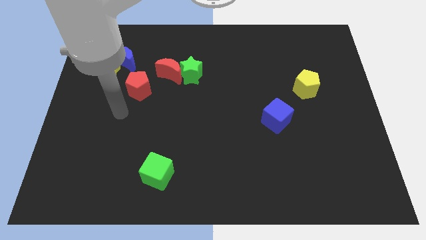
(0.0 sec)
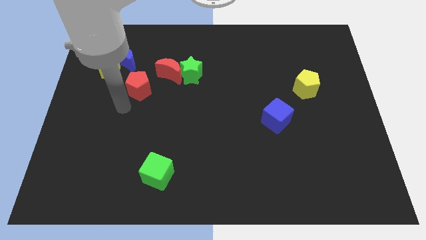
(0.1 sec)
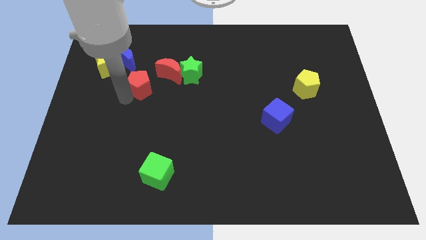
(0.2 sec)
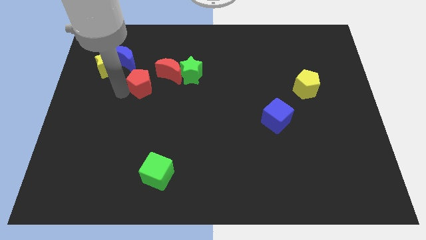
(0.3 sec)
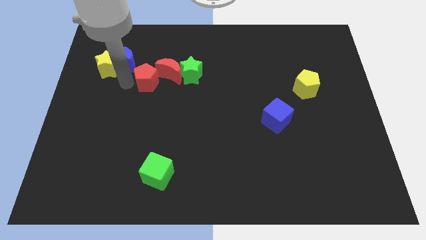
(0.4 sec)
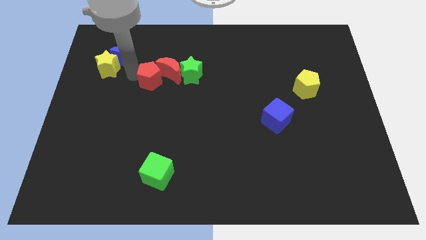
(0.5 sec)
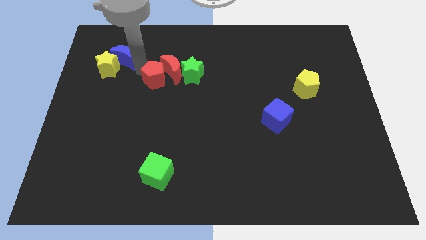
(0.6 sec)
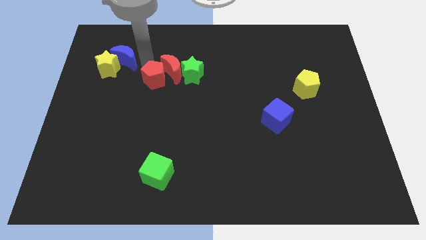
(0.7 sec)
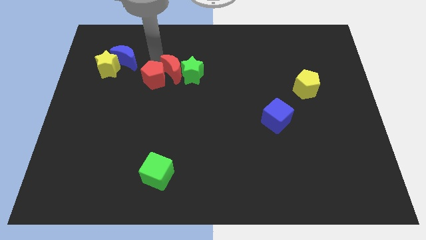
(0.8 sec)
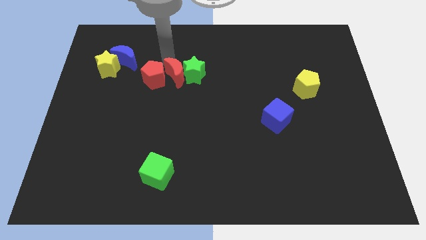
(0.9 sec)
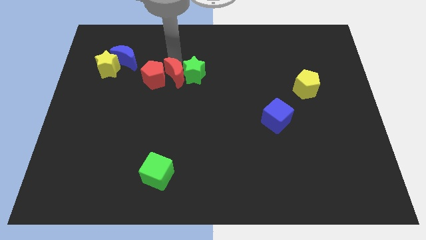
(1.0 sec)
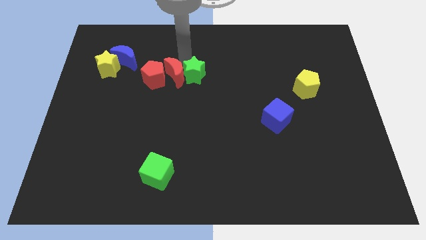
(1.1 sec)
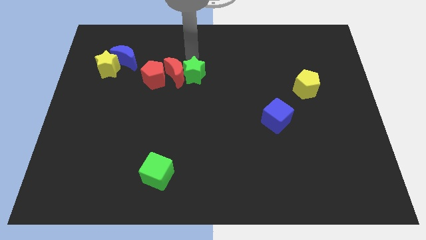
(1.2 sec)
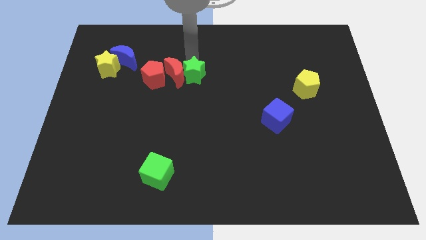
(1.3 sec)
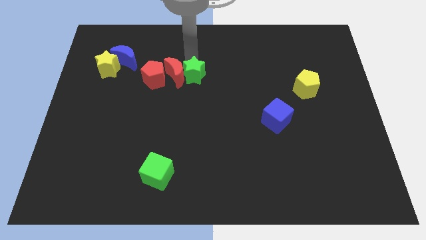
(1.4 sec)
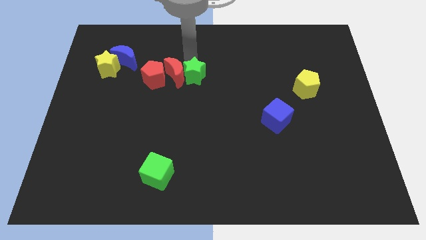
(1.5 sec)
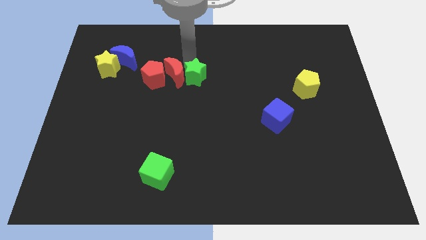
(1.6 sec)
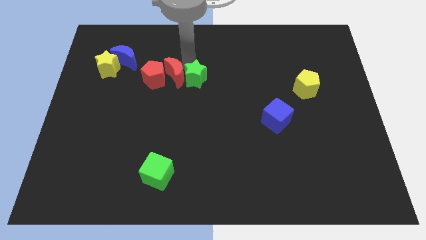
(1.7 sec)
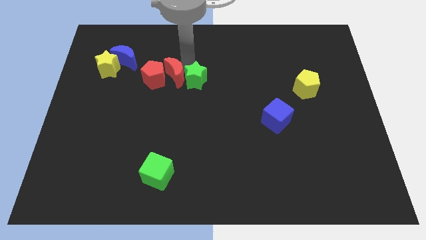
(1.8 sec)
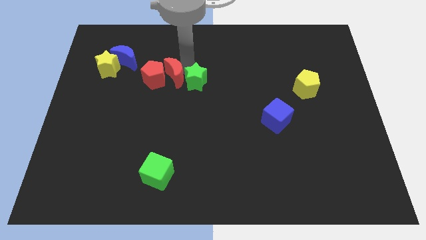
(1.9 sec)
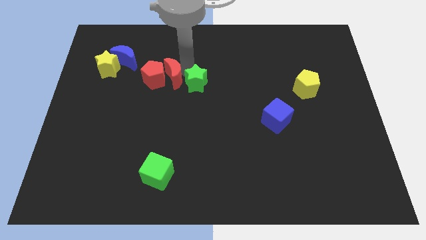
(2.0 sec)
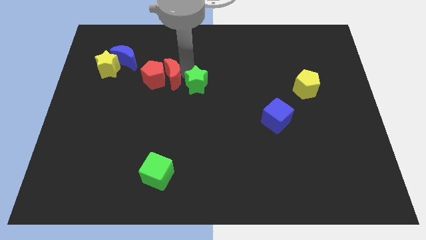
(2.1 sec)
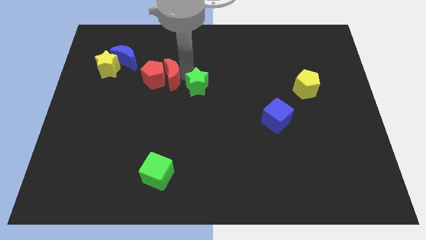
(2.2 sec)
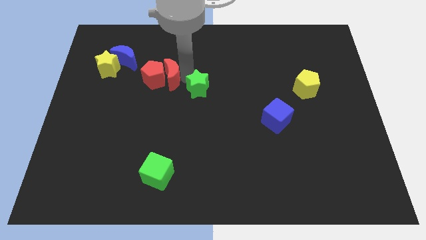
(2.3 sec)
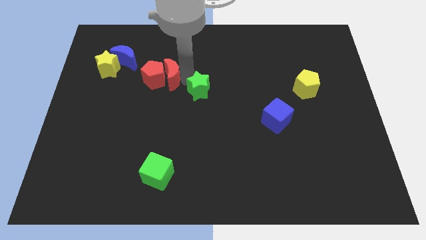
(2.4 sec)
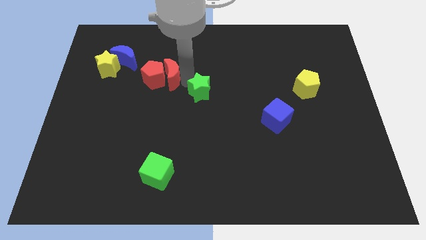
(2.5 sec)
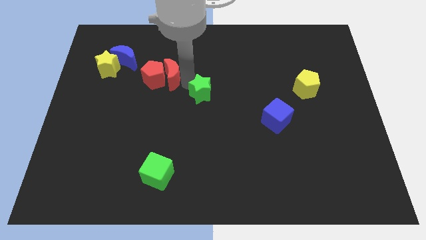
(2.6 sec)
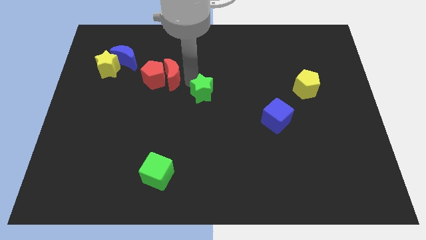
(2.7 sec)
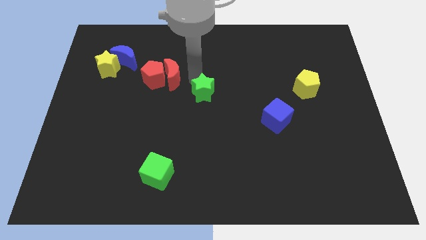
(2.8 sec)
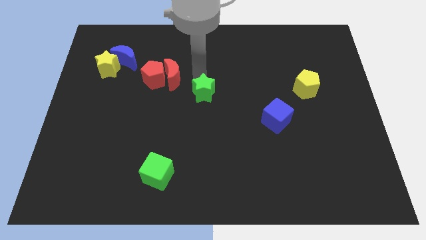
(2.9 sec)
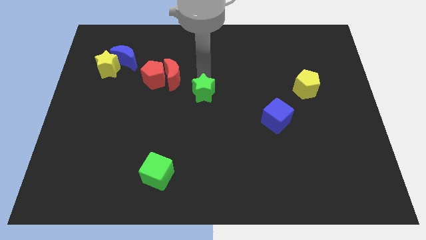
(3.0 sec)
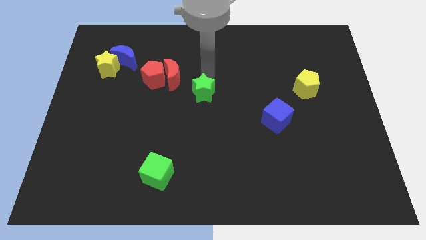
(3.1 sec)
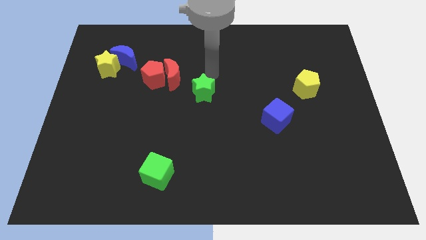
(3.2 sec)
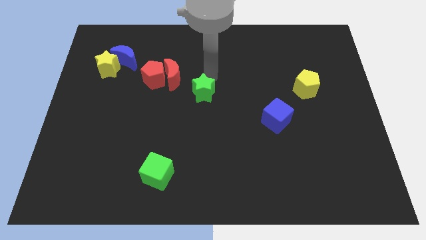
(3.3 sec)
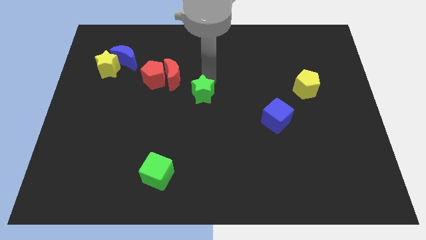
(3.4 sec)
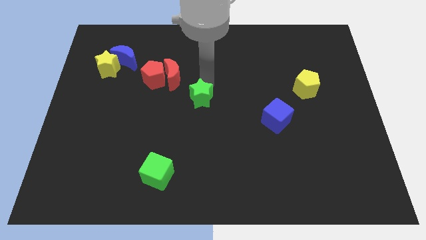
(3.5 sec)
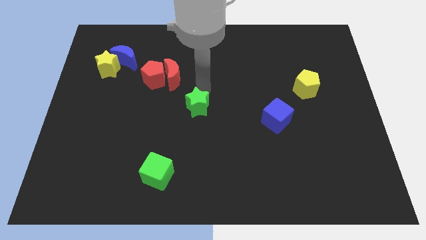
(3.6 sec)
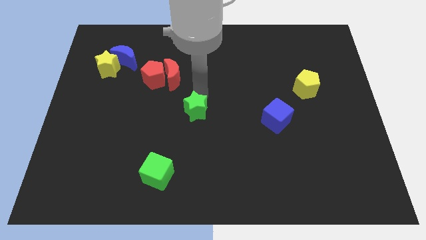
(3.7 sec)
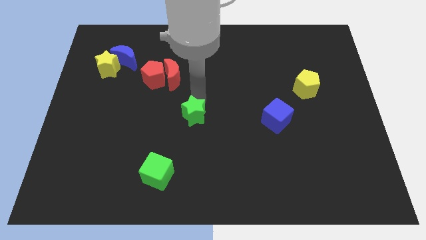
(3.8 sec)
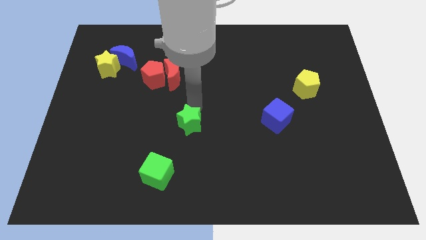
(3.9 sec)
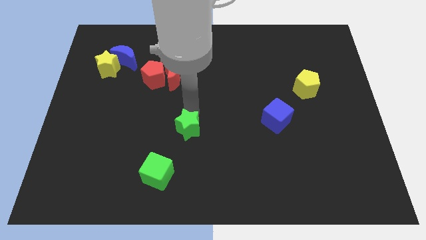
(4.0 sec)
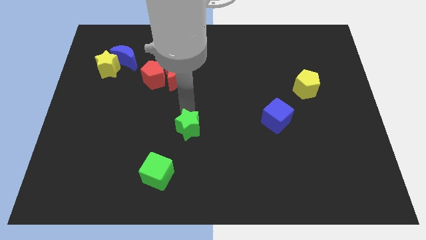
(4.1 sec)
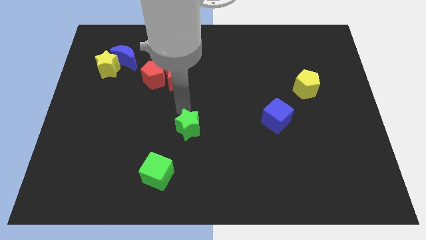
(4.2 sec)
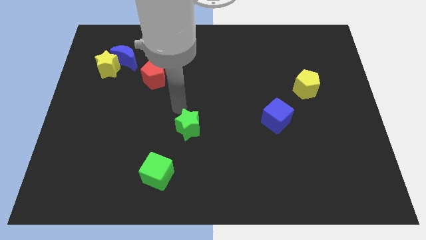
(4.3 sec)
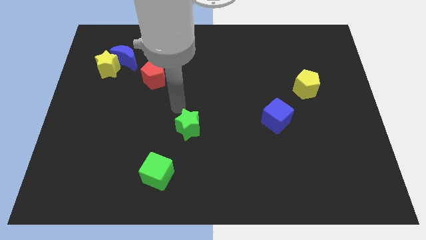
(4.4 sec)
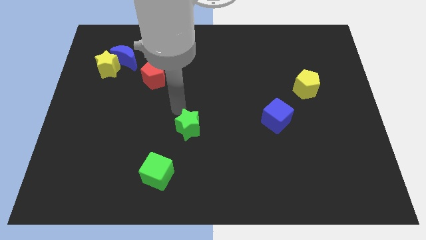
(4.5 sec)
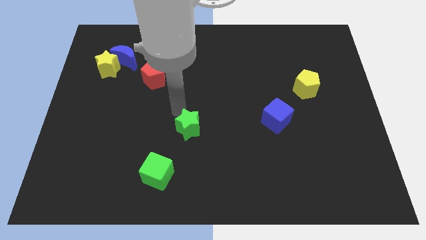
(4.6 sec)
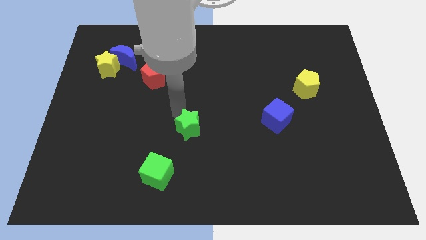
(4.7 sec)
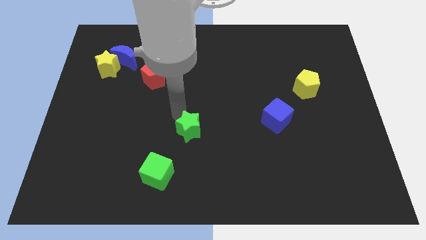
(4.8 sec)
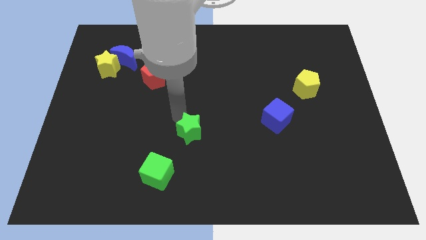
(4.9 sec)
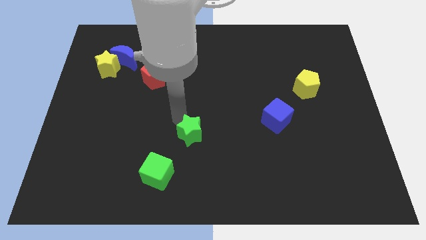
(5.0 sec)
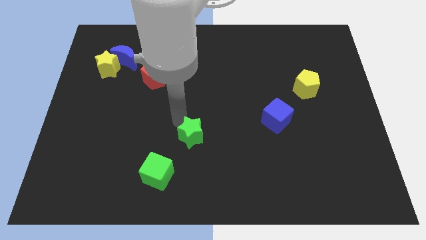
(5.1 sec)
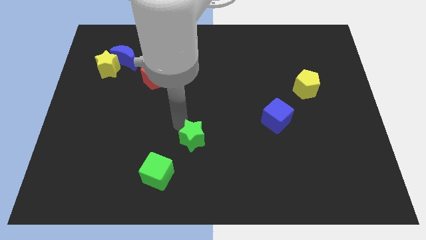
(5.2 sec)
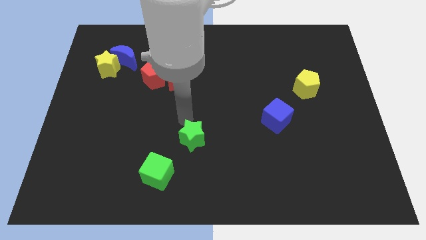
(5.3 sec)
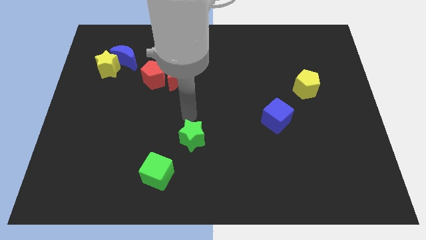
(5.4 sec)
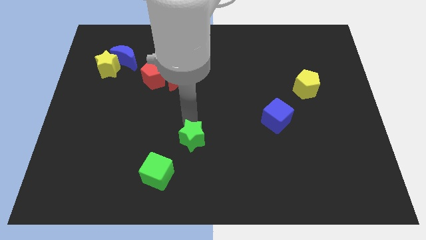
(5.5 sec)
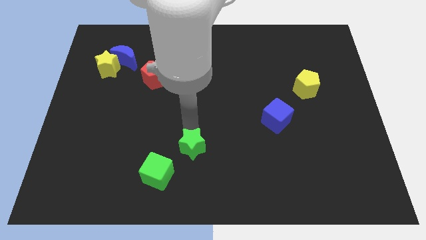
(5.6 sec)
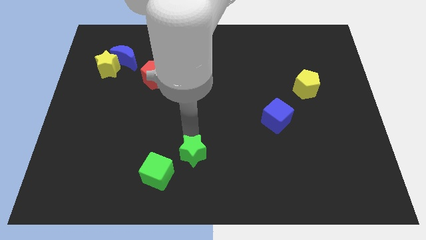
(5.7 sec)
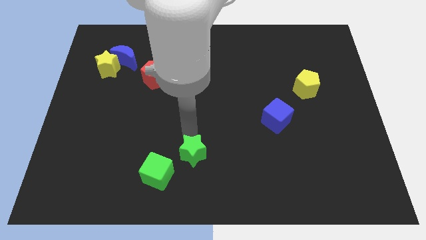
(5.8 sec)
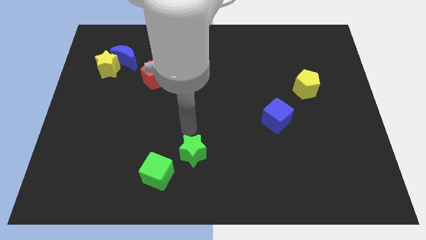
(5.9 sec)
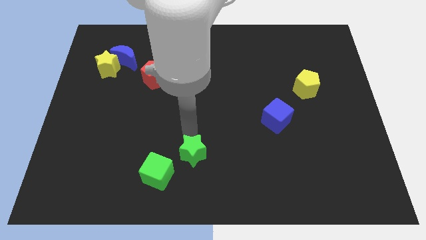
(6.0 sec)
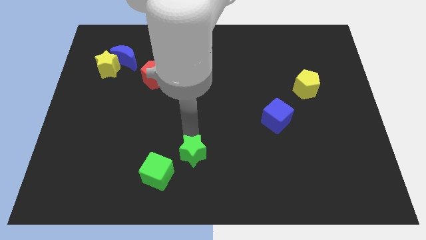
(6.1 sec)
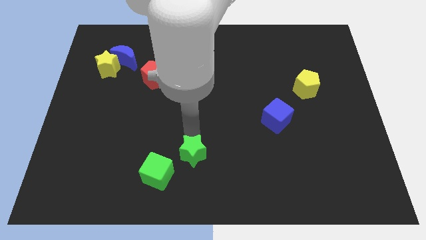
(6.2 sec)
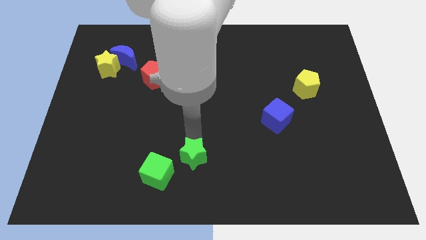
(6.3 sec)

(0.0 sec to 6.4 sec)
push the green star to the bottom side

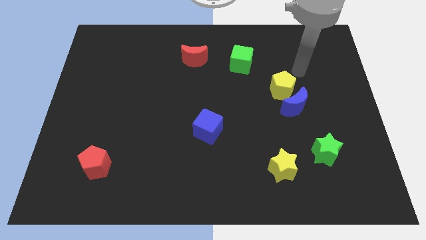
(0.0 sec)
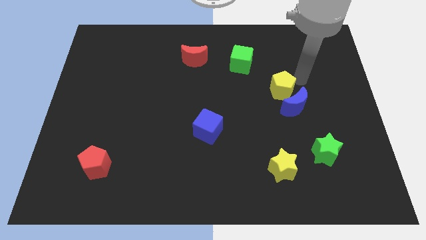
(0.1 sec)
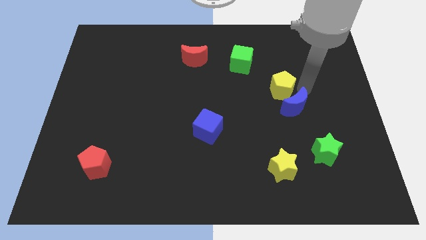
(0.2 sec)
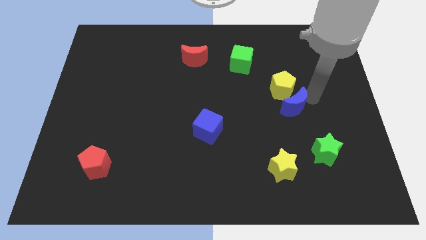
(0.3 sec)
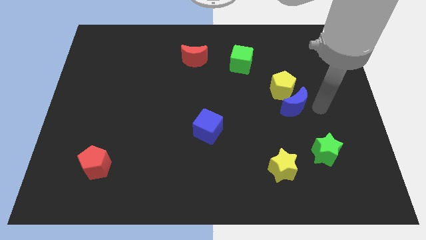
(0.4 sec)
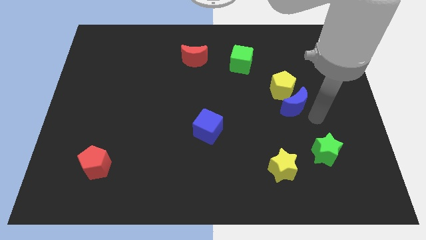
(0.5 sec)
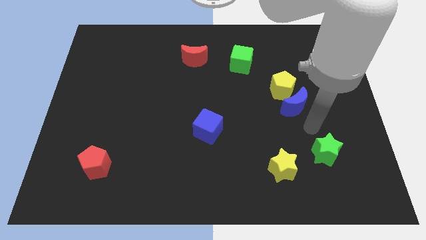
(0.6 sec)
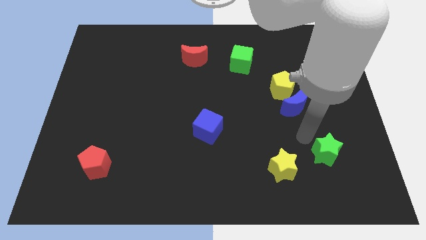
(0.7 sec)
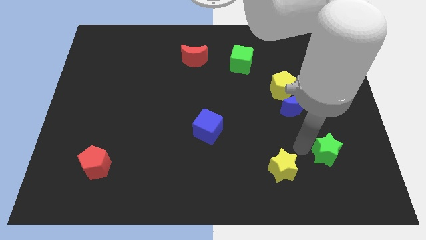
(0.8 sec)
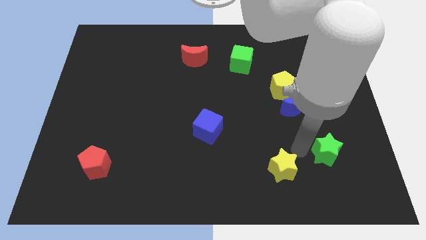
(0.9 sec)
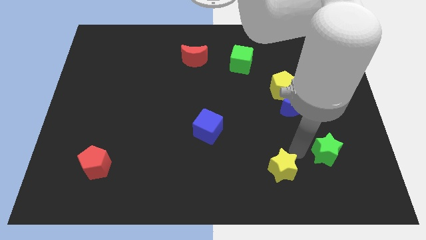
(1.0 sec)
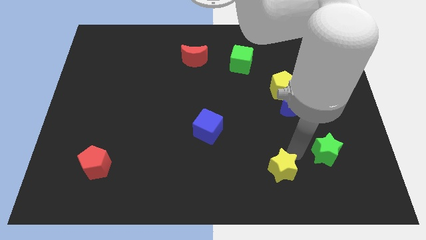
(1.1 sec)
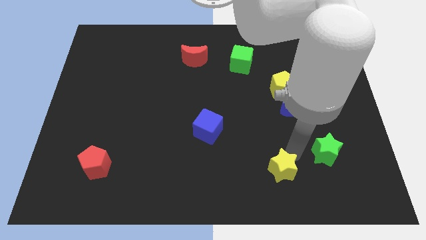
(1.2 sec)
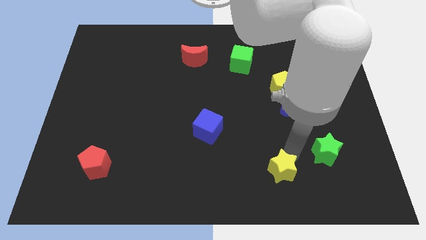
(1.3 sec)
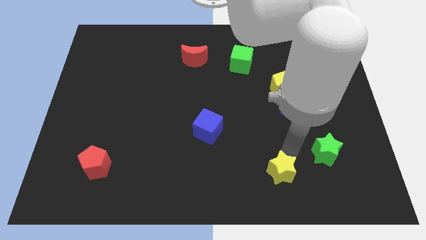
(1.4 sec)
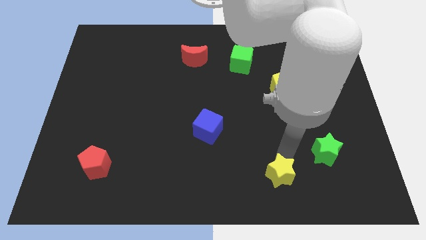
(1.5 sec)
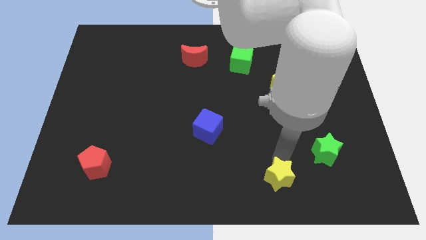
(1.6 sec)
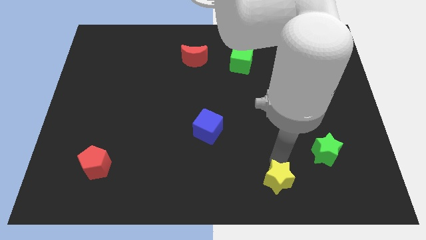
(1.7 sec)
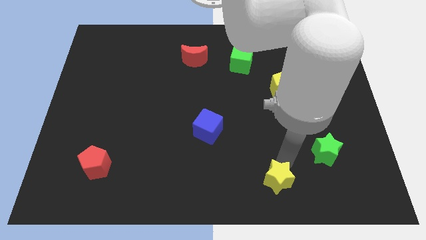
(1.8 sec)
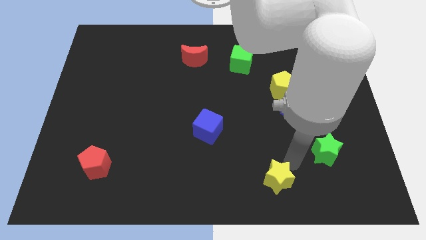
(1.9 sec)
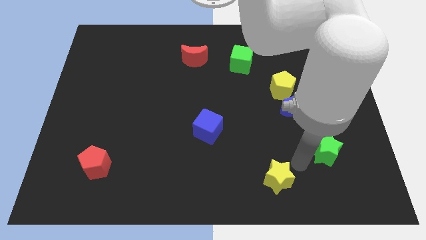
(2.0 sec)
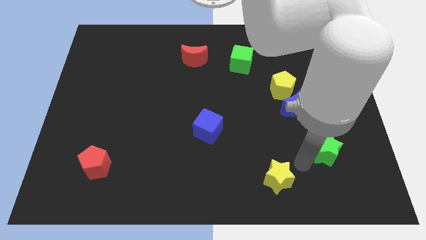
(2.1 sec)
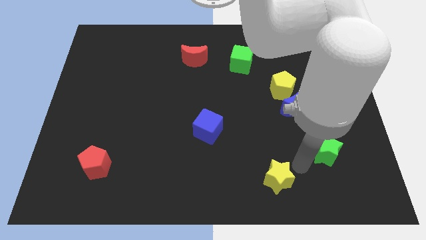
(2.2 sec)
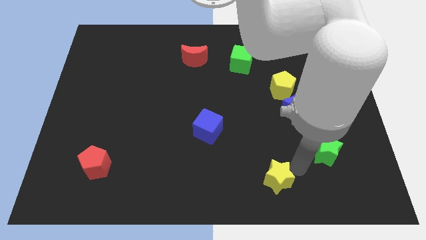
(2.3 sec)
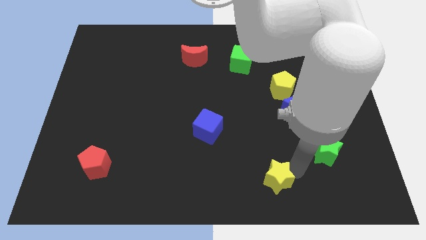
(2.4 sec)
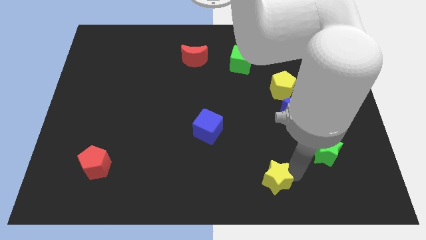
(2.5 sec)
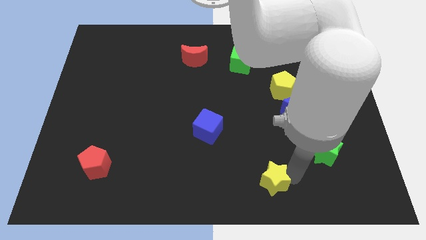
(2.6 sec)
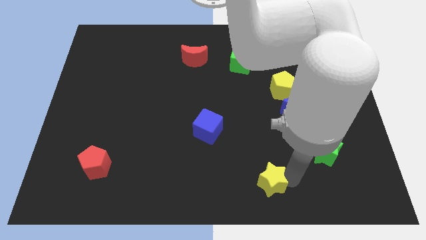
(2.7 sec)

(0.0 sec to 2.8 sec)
push the yellow star to the bottom
